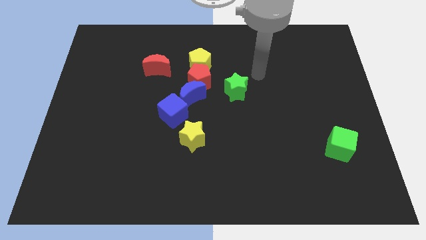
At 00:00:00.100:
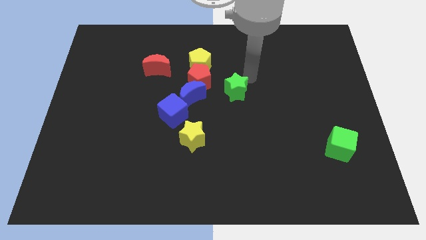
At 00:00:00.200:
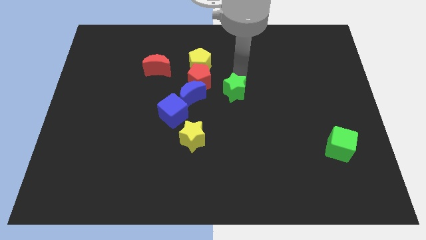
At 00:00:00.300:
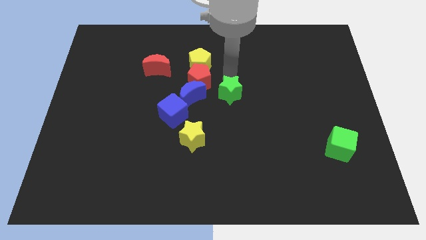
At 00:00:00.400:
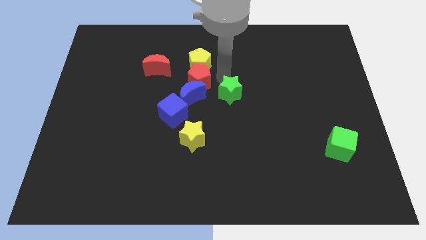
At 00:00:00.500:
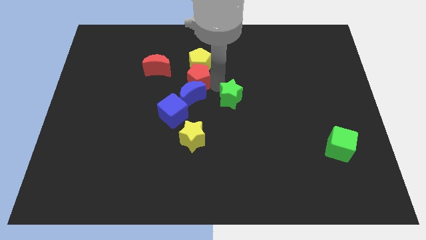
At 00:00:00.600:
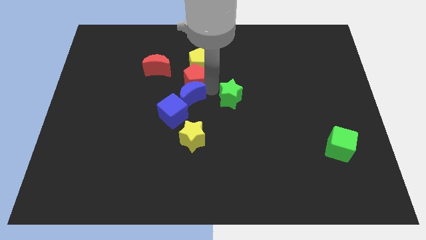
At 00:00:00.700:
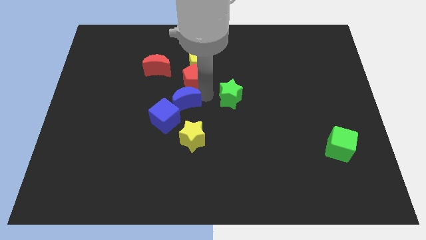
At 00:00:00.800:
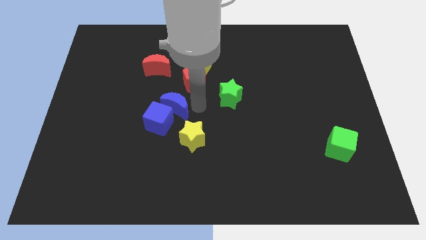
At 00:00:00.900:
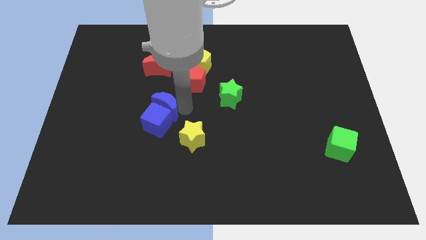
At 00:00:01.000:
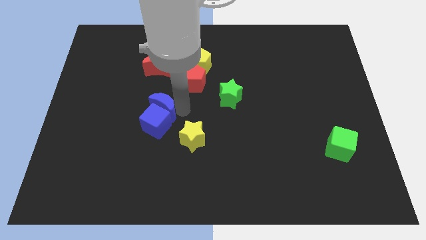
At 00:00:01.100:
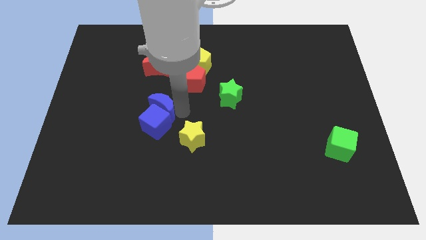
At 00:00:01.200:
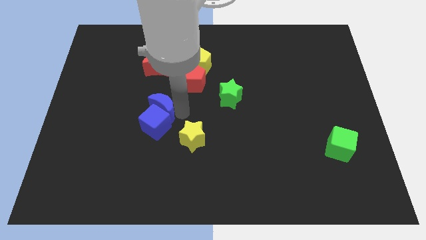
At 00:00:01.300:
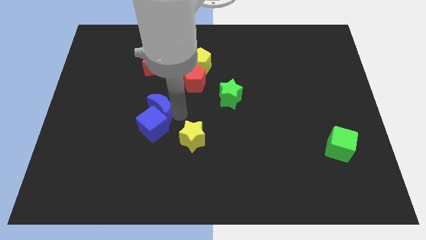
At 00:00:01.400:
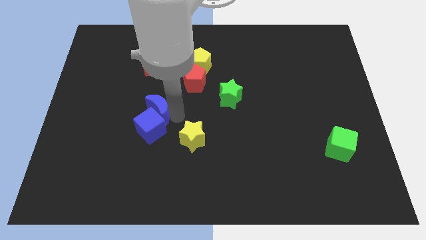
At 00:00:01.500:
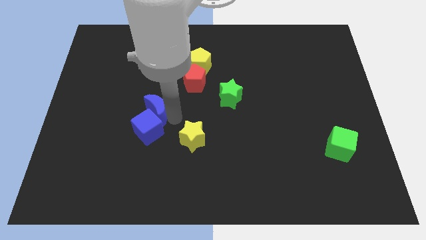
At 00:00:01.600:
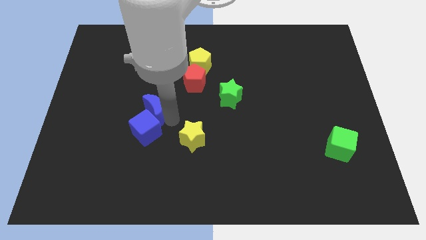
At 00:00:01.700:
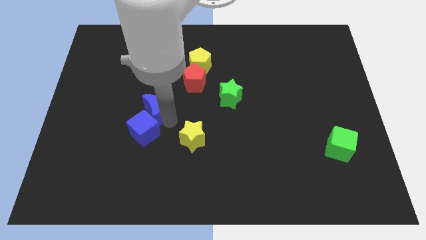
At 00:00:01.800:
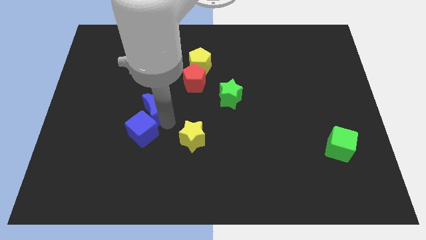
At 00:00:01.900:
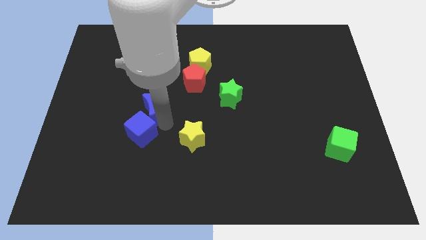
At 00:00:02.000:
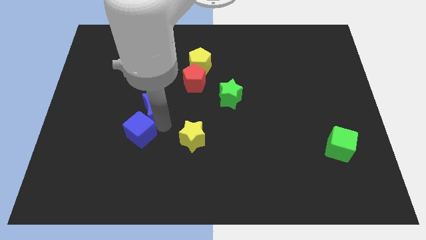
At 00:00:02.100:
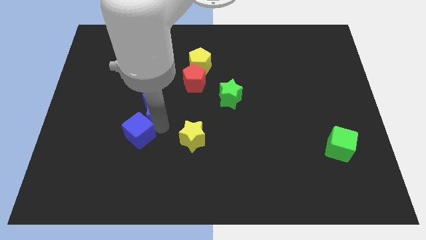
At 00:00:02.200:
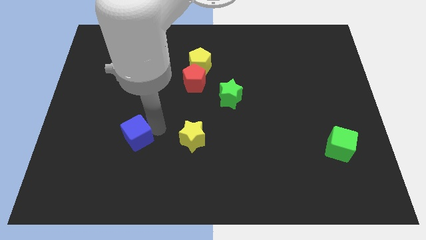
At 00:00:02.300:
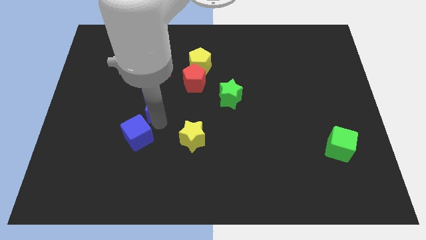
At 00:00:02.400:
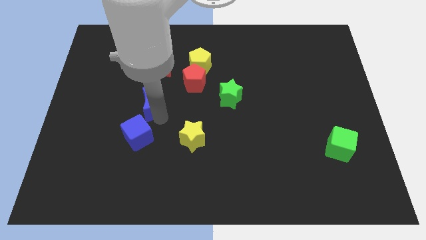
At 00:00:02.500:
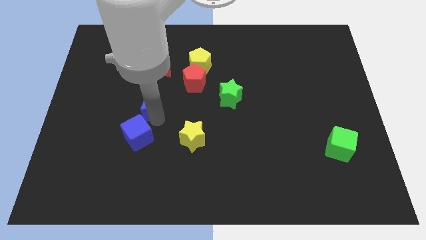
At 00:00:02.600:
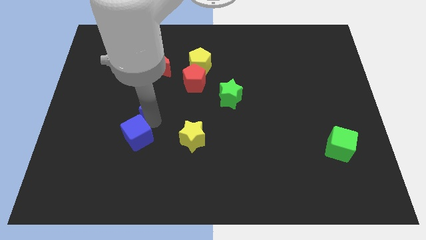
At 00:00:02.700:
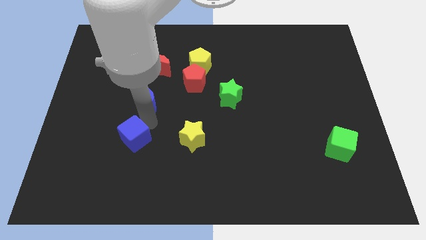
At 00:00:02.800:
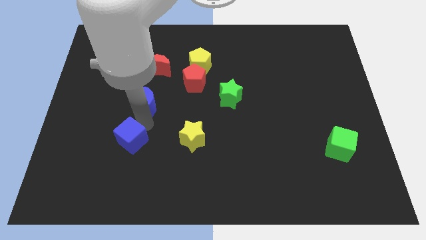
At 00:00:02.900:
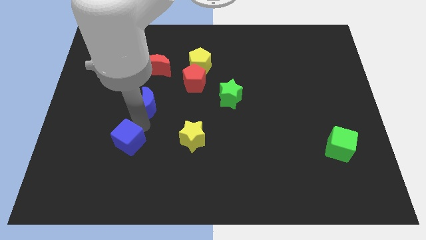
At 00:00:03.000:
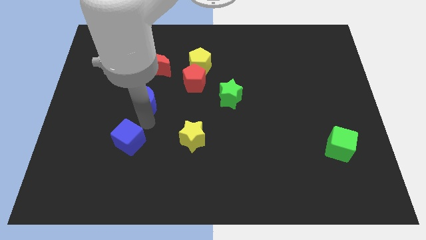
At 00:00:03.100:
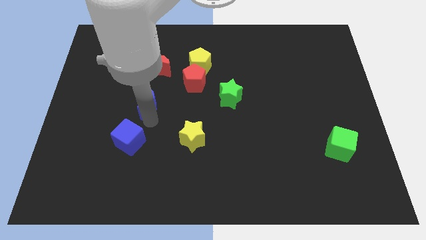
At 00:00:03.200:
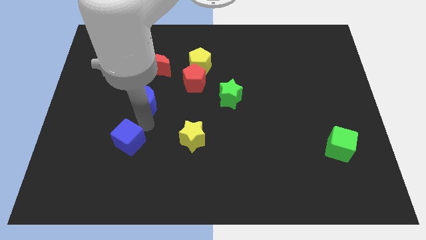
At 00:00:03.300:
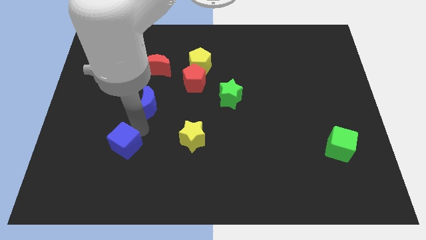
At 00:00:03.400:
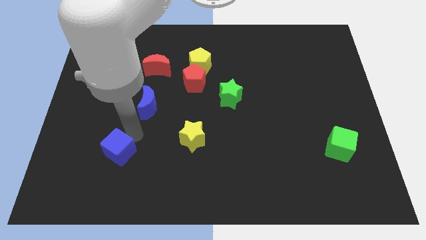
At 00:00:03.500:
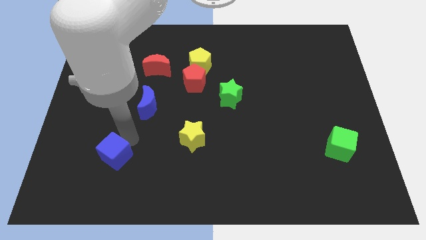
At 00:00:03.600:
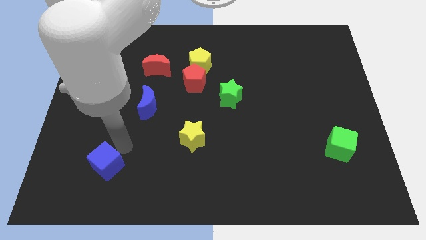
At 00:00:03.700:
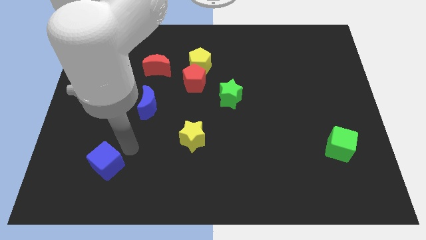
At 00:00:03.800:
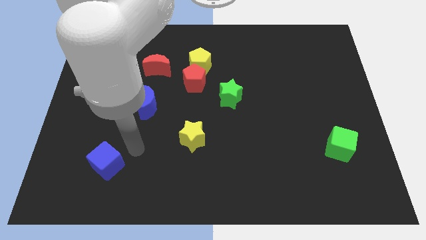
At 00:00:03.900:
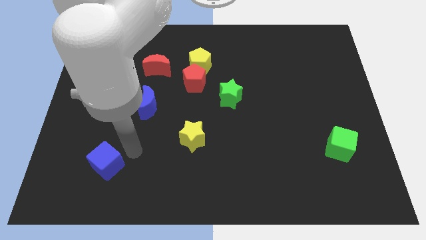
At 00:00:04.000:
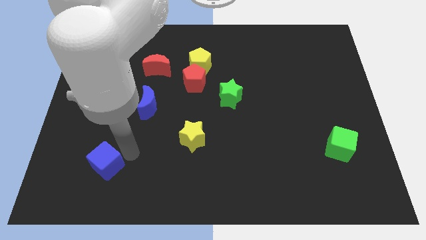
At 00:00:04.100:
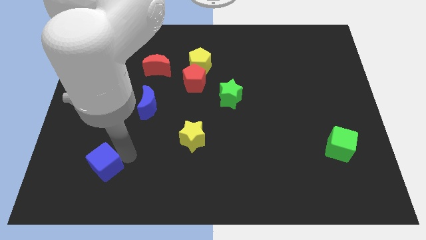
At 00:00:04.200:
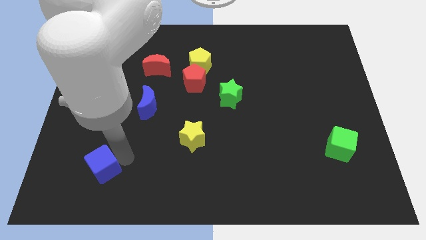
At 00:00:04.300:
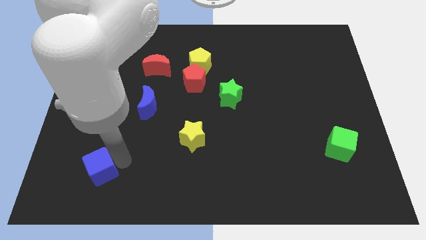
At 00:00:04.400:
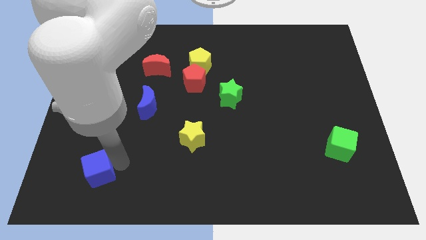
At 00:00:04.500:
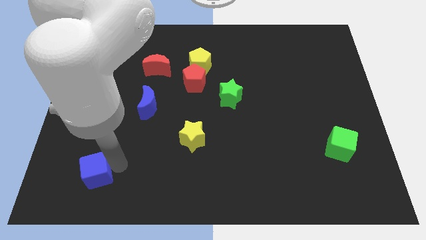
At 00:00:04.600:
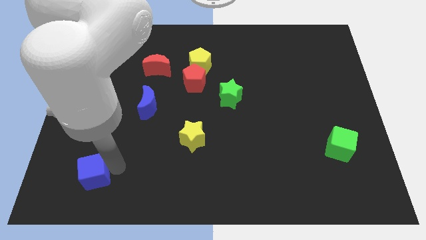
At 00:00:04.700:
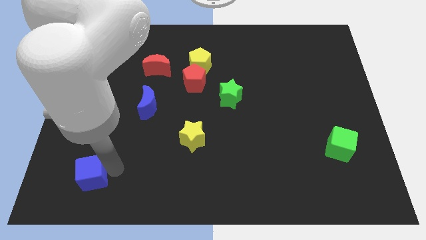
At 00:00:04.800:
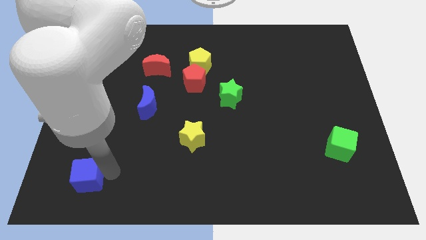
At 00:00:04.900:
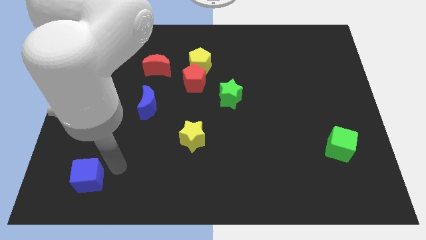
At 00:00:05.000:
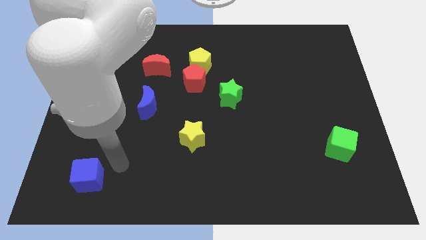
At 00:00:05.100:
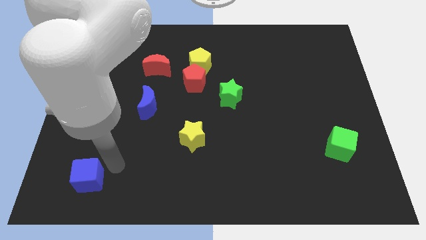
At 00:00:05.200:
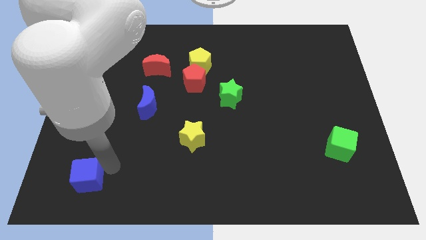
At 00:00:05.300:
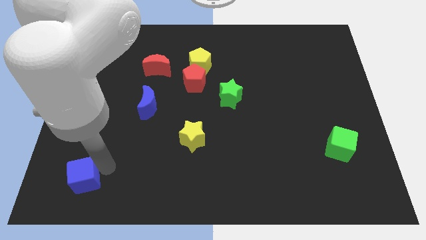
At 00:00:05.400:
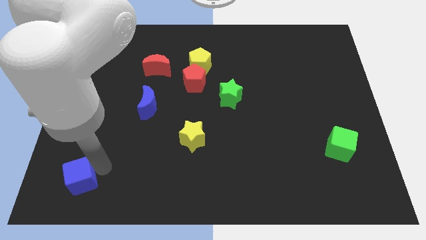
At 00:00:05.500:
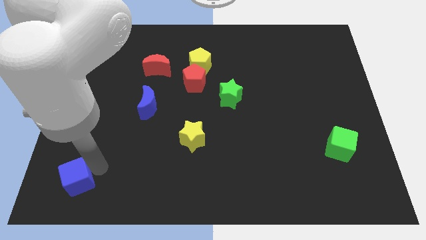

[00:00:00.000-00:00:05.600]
move the blue cube to the bottom left
